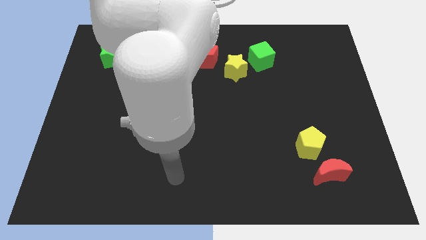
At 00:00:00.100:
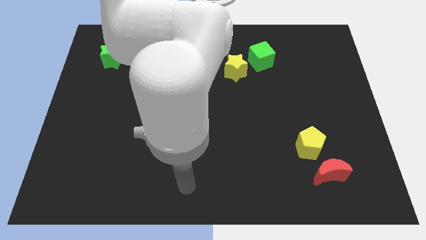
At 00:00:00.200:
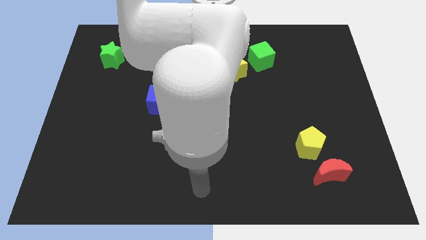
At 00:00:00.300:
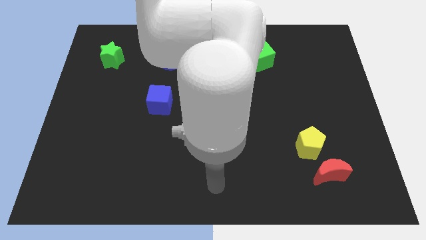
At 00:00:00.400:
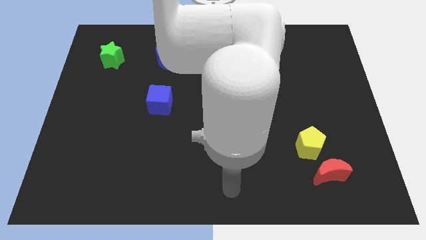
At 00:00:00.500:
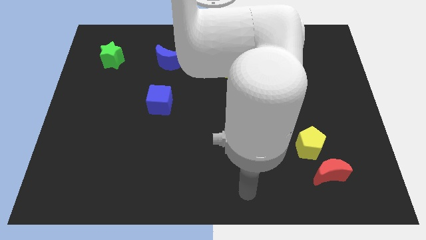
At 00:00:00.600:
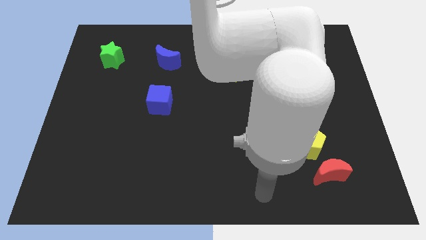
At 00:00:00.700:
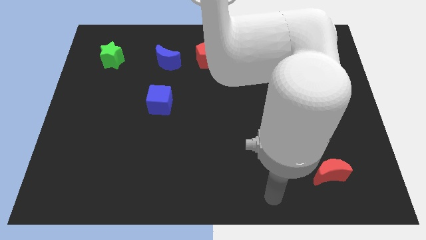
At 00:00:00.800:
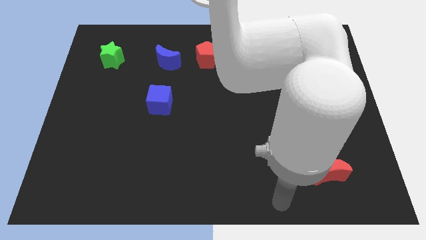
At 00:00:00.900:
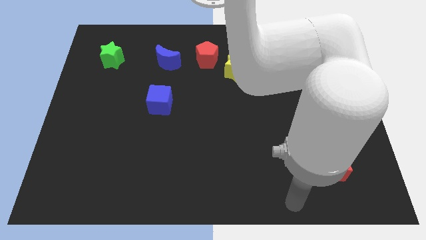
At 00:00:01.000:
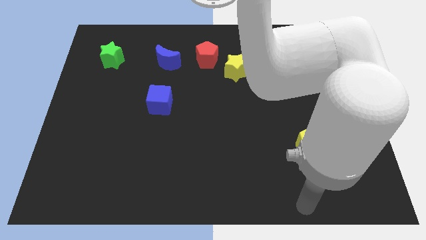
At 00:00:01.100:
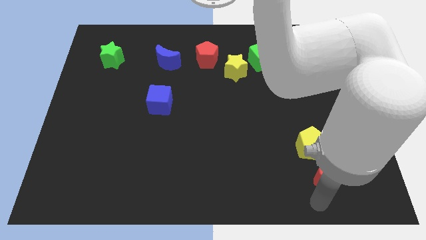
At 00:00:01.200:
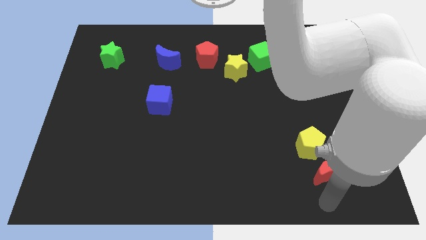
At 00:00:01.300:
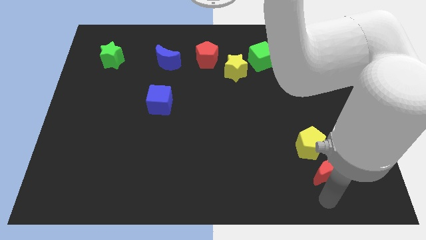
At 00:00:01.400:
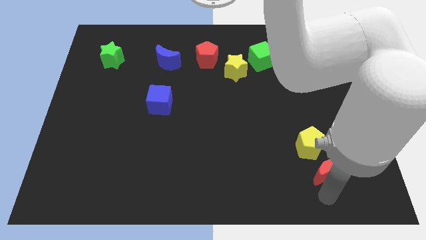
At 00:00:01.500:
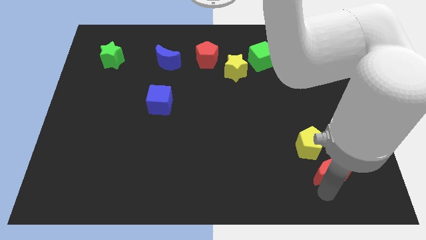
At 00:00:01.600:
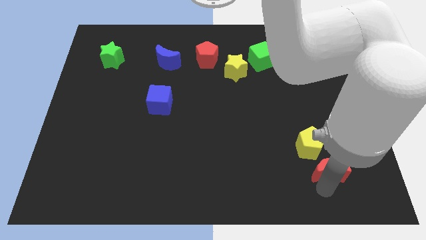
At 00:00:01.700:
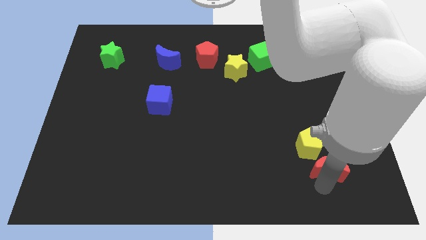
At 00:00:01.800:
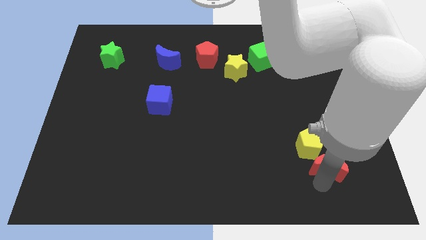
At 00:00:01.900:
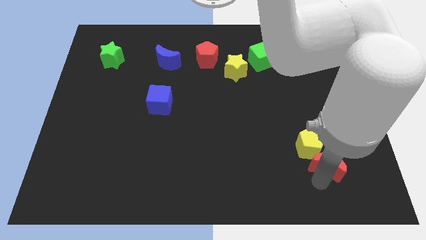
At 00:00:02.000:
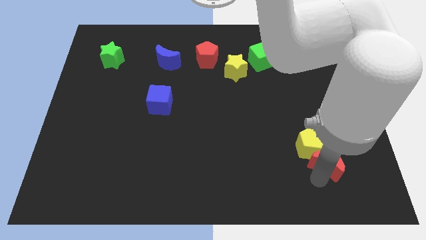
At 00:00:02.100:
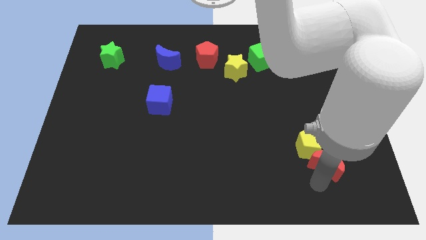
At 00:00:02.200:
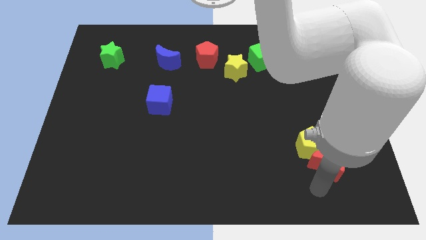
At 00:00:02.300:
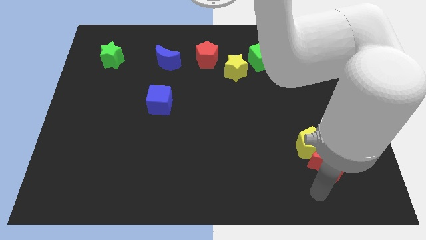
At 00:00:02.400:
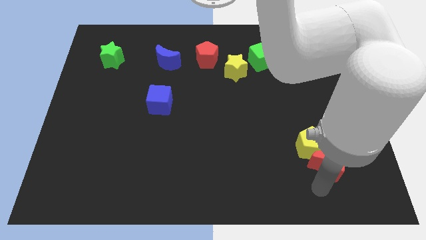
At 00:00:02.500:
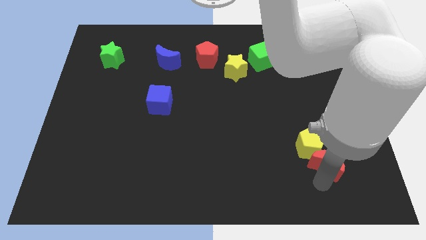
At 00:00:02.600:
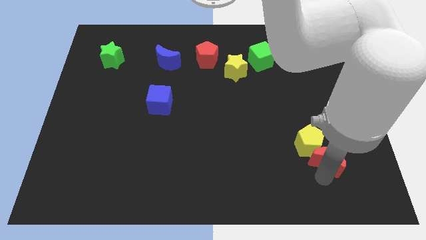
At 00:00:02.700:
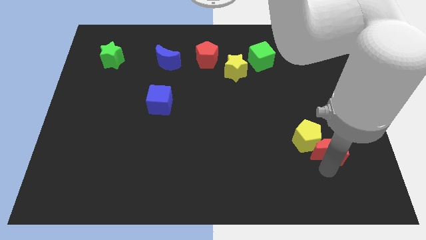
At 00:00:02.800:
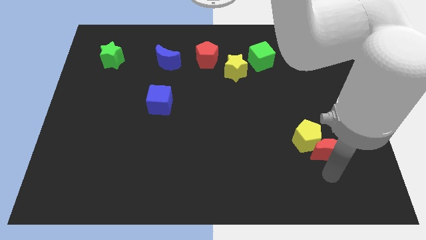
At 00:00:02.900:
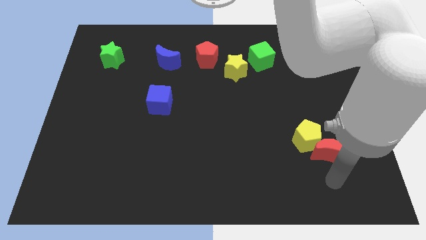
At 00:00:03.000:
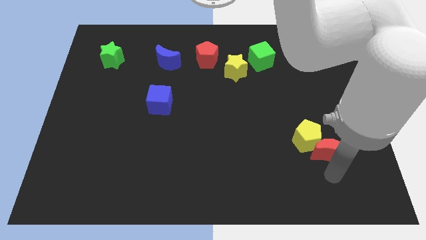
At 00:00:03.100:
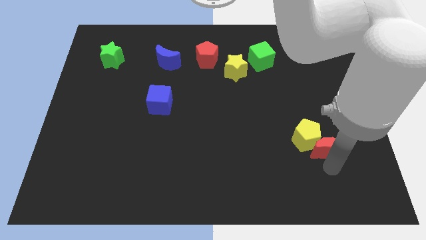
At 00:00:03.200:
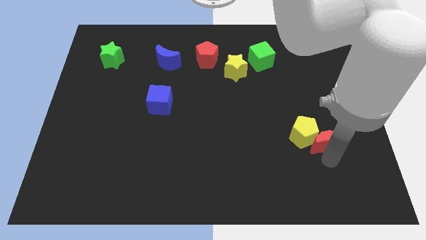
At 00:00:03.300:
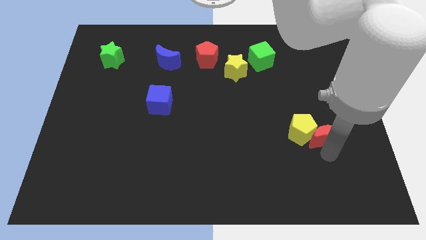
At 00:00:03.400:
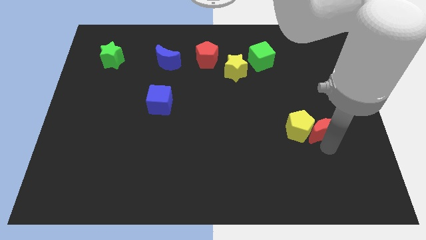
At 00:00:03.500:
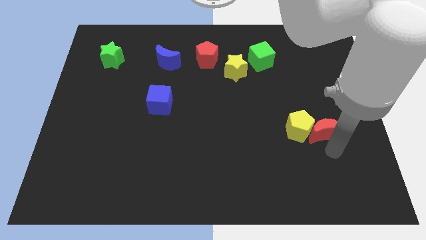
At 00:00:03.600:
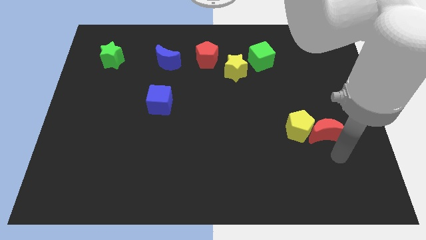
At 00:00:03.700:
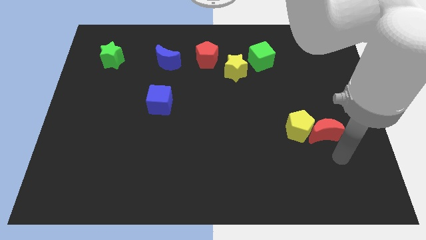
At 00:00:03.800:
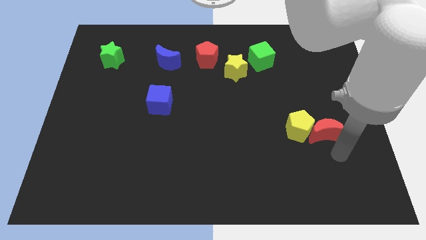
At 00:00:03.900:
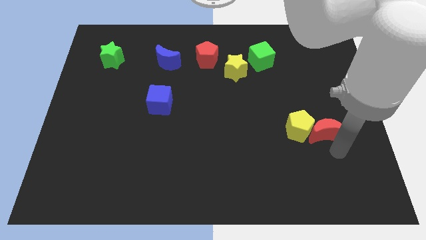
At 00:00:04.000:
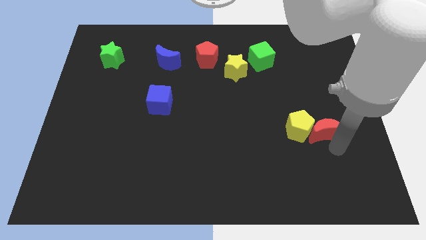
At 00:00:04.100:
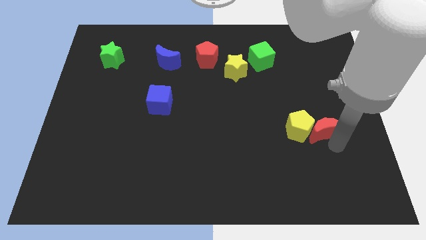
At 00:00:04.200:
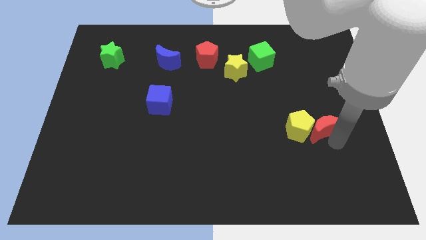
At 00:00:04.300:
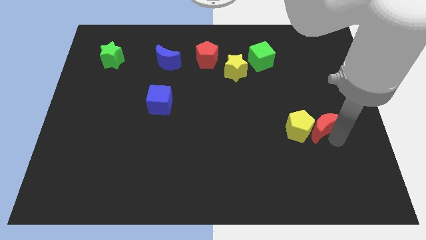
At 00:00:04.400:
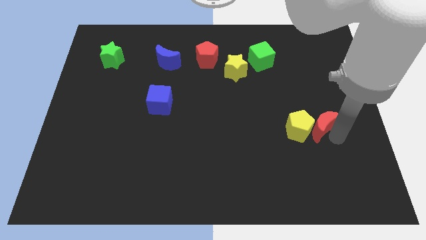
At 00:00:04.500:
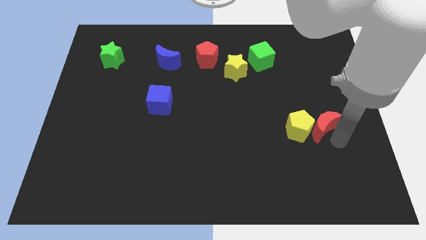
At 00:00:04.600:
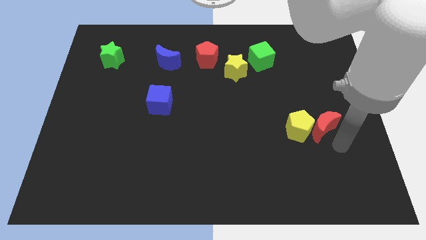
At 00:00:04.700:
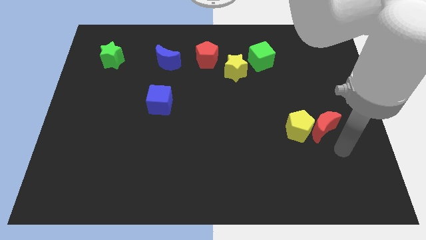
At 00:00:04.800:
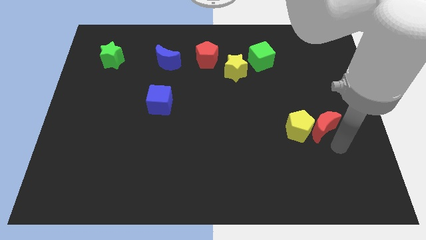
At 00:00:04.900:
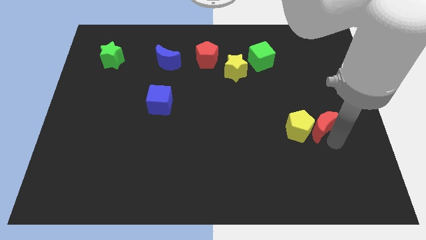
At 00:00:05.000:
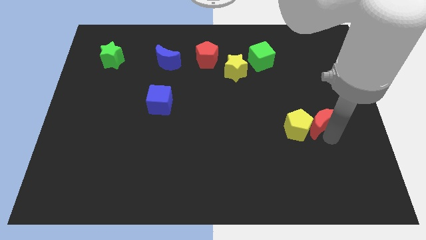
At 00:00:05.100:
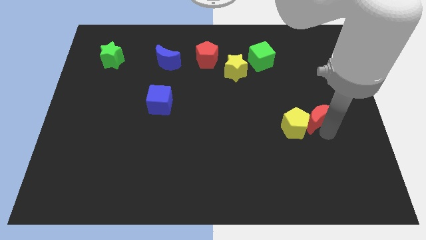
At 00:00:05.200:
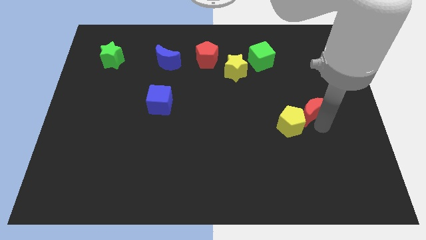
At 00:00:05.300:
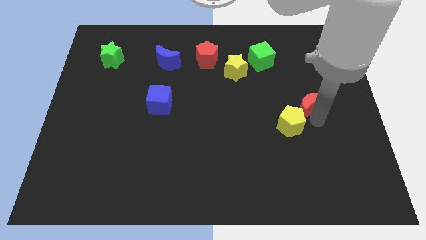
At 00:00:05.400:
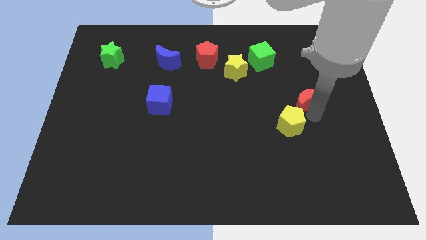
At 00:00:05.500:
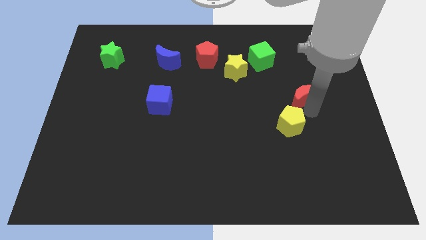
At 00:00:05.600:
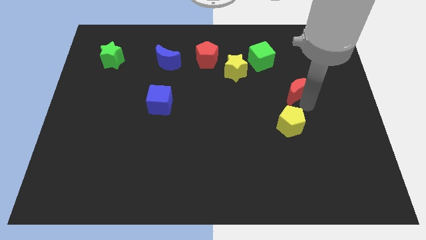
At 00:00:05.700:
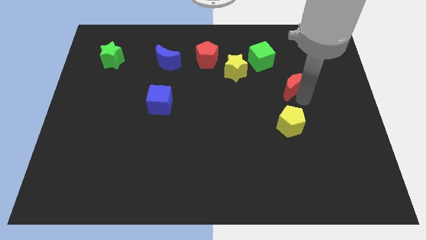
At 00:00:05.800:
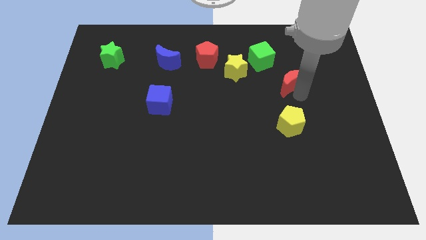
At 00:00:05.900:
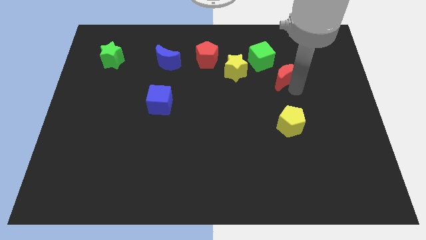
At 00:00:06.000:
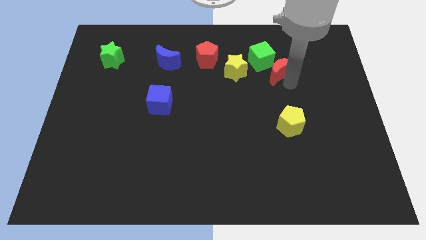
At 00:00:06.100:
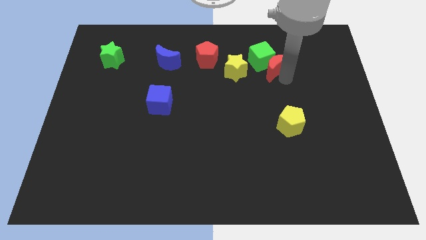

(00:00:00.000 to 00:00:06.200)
slide the red moon to the green cube
